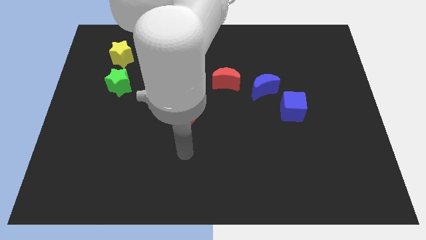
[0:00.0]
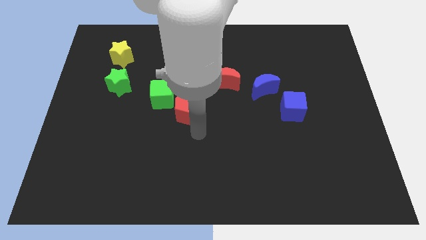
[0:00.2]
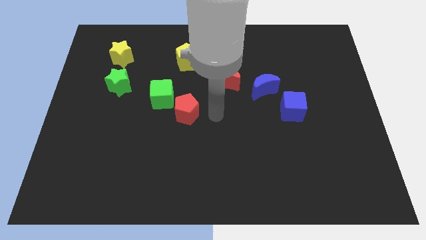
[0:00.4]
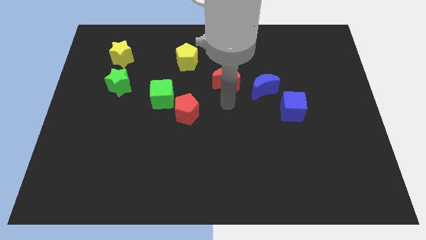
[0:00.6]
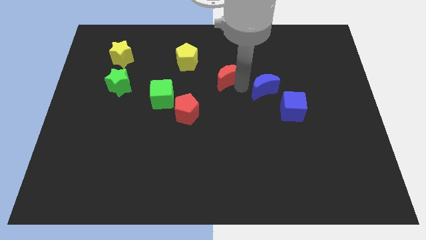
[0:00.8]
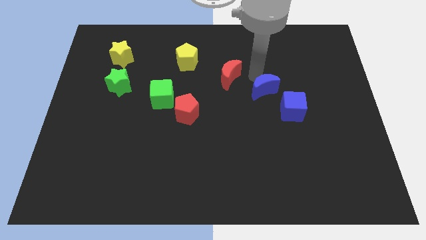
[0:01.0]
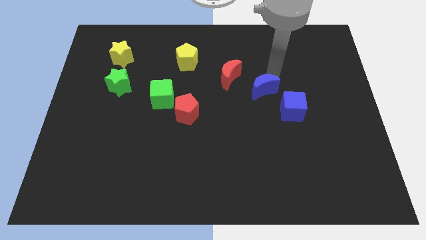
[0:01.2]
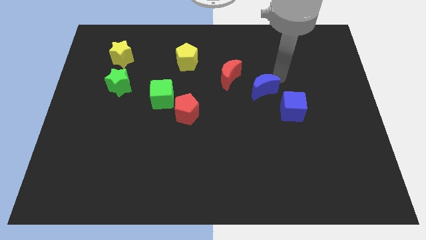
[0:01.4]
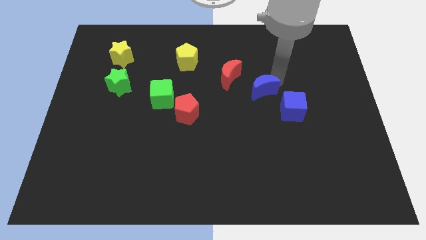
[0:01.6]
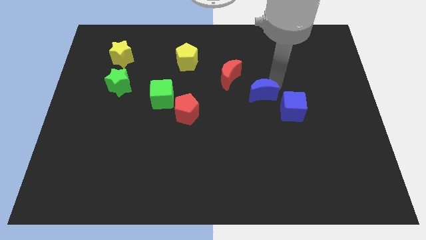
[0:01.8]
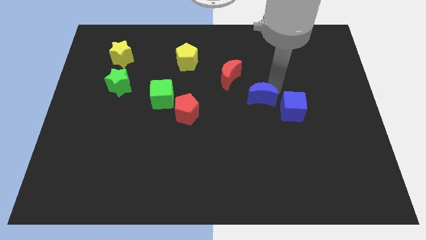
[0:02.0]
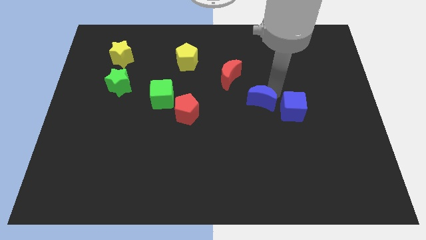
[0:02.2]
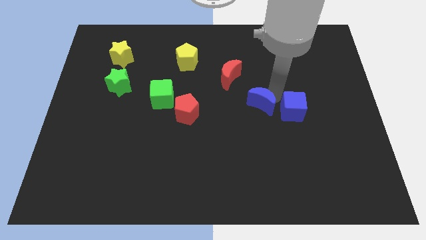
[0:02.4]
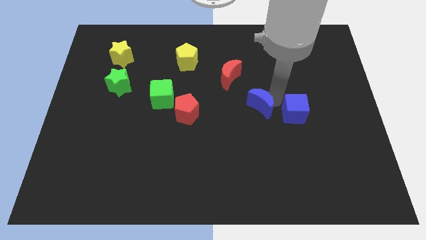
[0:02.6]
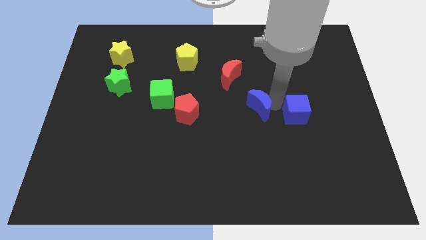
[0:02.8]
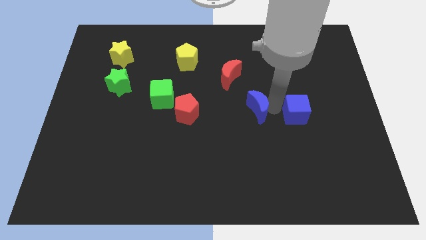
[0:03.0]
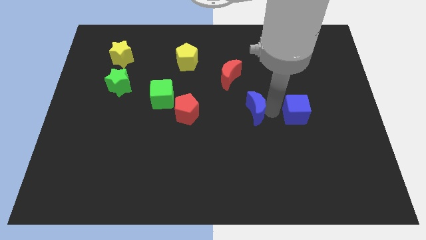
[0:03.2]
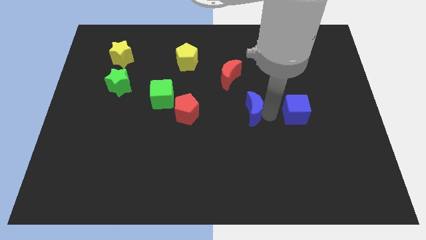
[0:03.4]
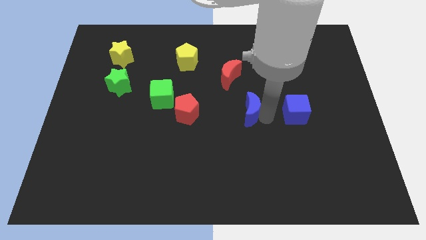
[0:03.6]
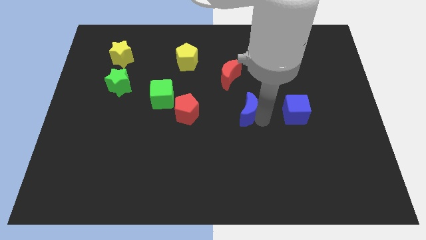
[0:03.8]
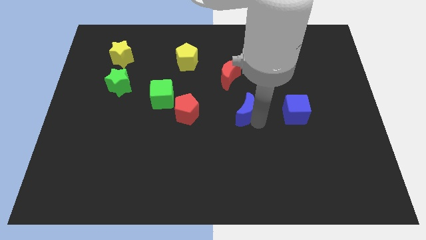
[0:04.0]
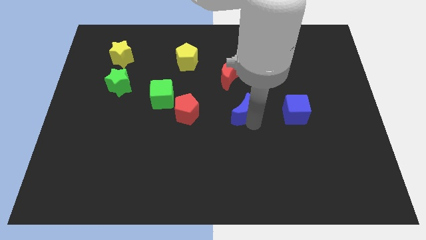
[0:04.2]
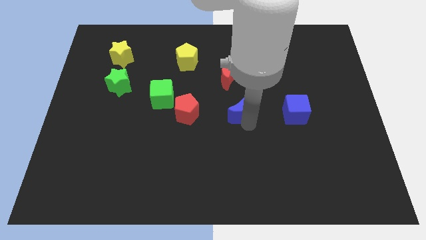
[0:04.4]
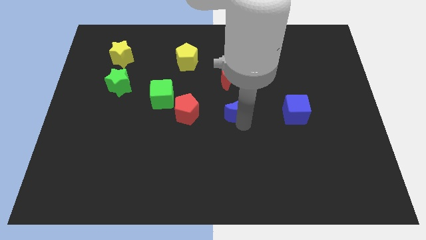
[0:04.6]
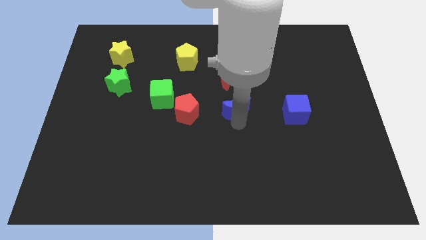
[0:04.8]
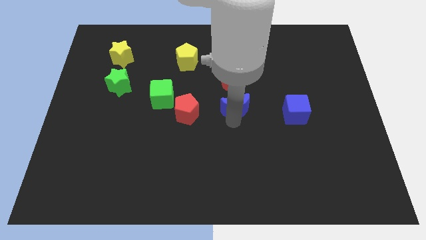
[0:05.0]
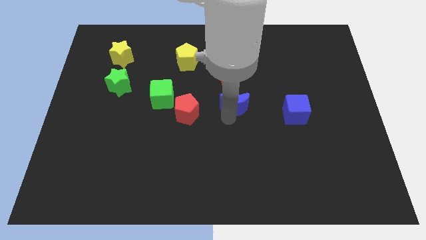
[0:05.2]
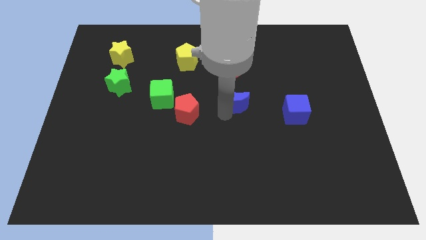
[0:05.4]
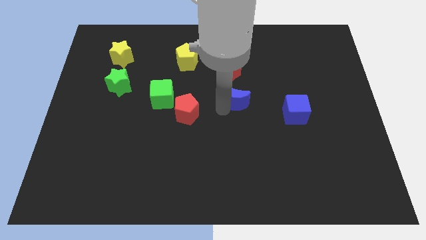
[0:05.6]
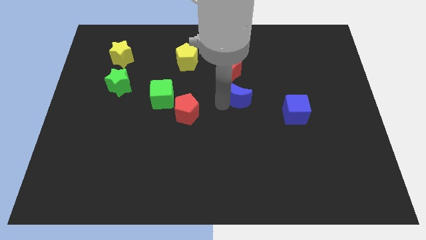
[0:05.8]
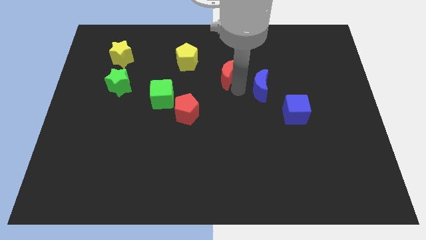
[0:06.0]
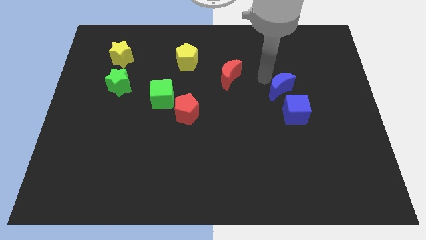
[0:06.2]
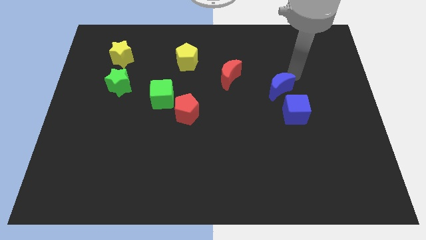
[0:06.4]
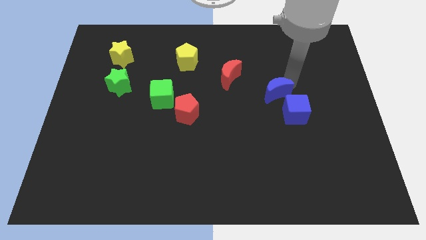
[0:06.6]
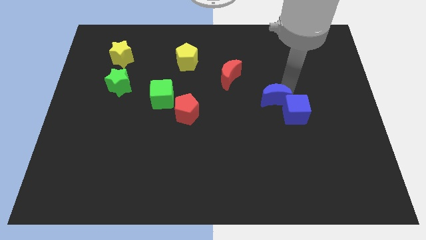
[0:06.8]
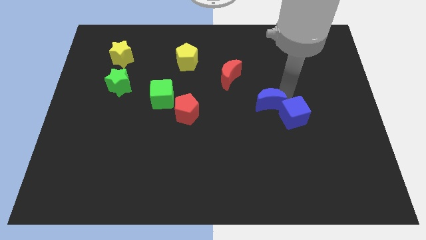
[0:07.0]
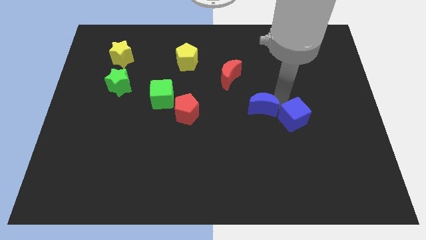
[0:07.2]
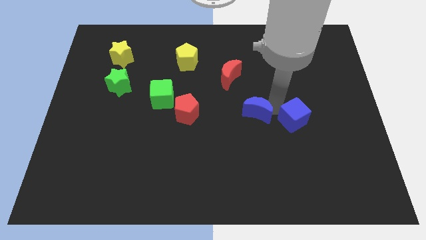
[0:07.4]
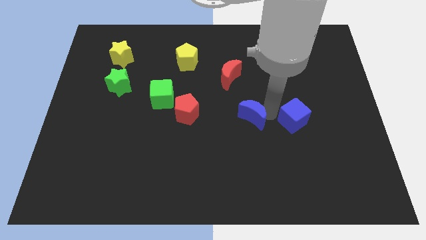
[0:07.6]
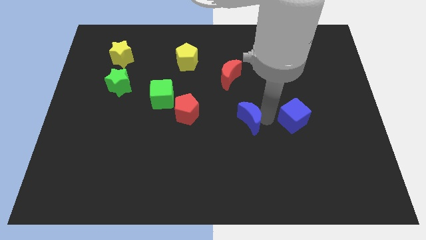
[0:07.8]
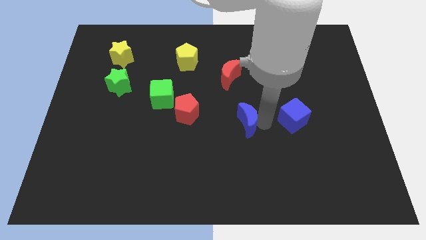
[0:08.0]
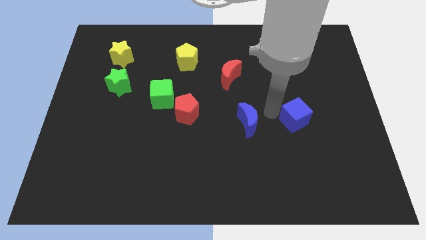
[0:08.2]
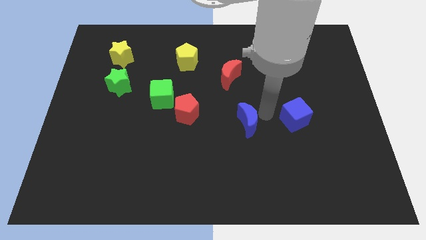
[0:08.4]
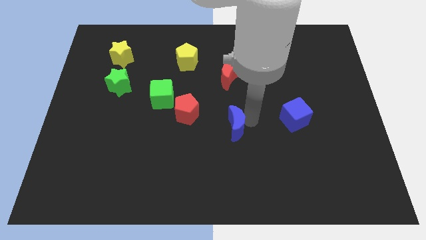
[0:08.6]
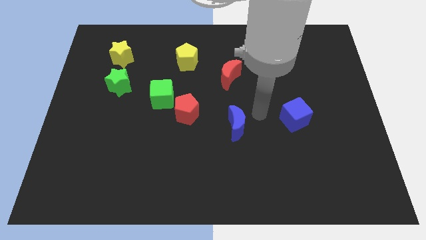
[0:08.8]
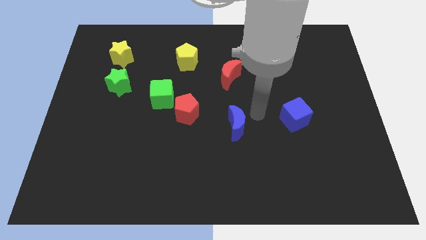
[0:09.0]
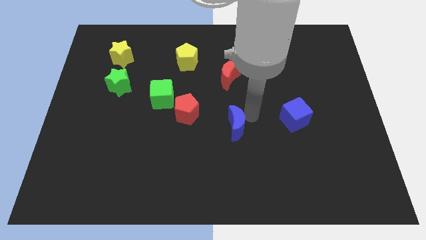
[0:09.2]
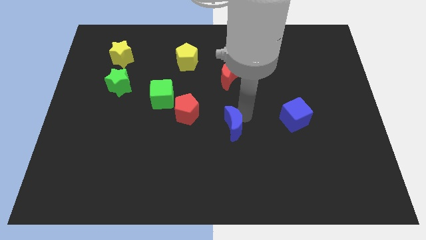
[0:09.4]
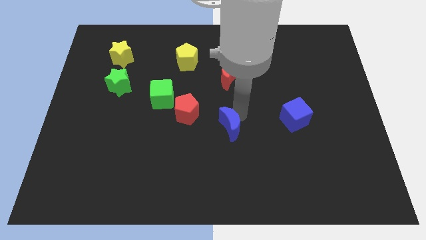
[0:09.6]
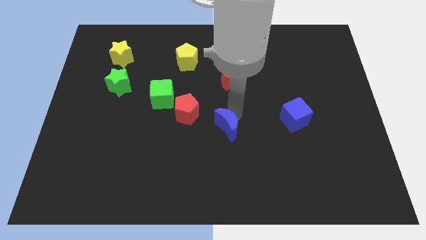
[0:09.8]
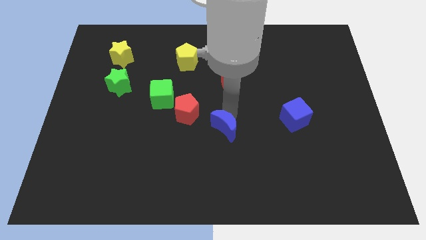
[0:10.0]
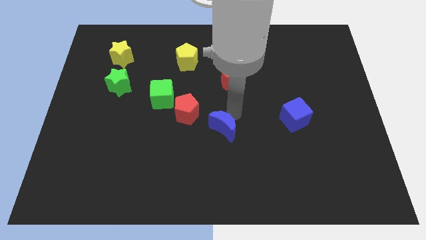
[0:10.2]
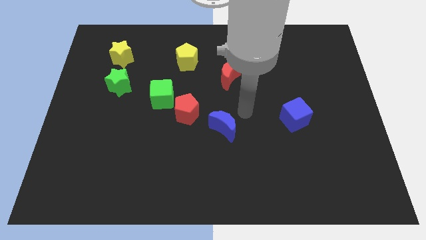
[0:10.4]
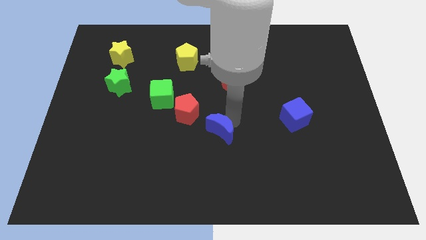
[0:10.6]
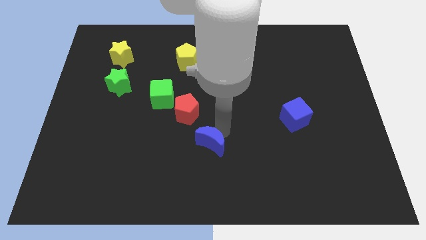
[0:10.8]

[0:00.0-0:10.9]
slide the blue moon downwards and left

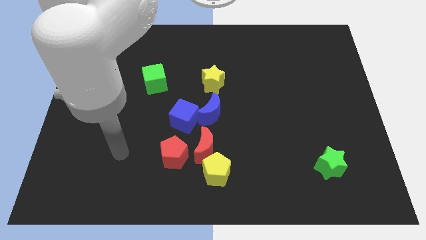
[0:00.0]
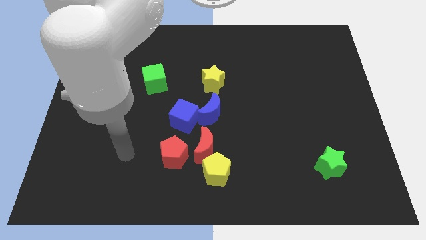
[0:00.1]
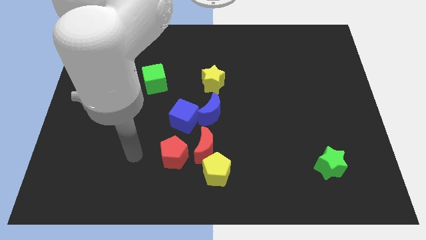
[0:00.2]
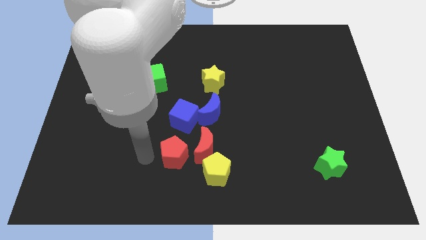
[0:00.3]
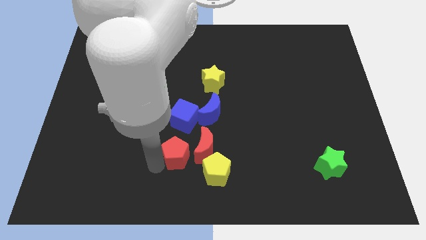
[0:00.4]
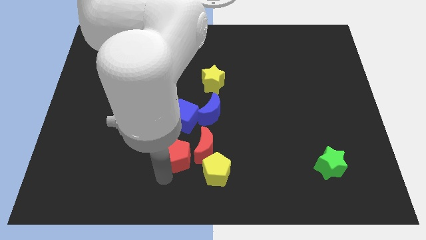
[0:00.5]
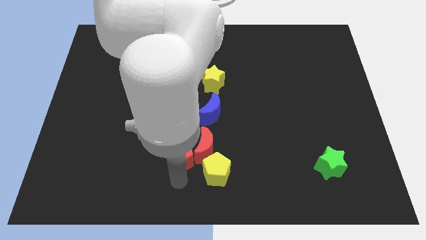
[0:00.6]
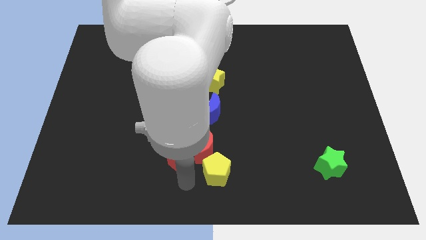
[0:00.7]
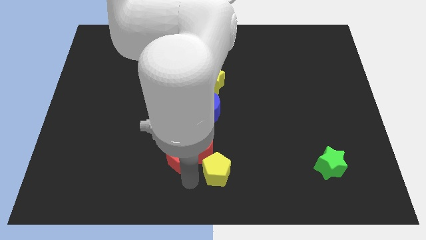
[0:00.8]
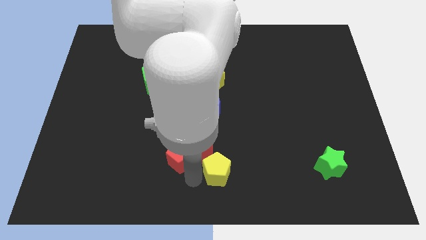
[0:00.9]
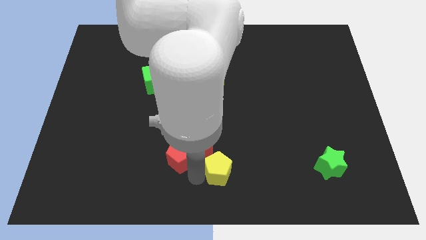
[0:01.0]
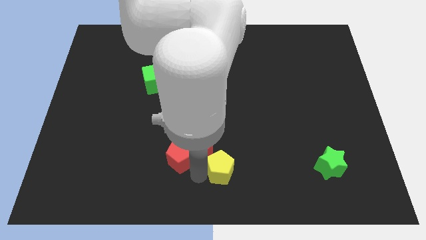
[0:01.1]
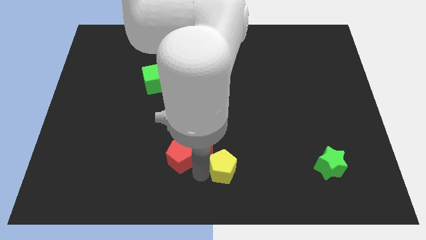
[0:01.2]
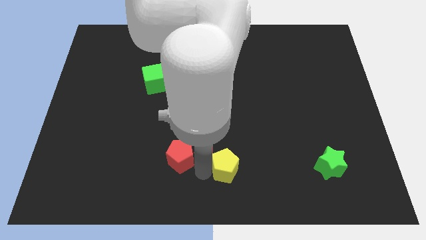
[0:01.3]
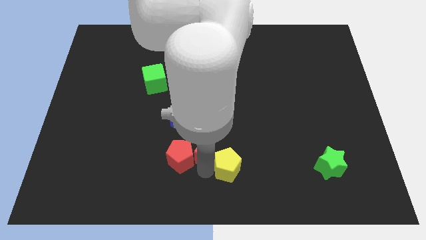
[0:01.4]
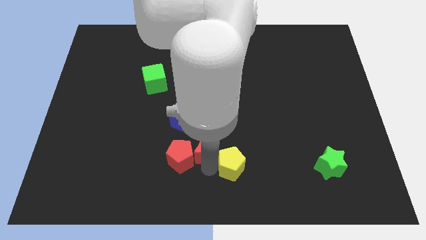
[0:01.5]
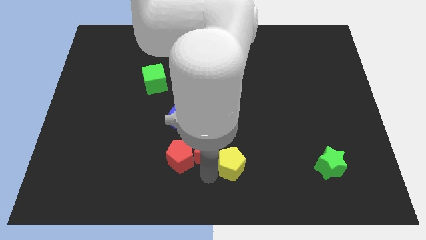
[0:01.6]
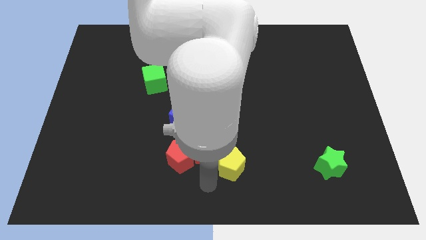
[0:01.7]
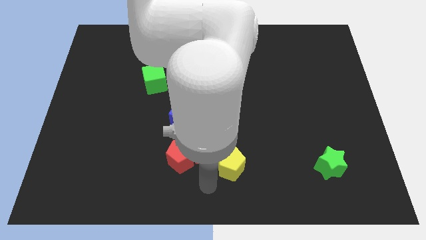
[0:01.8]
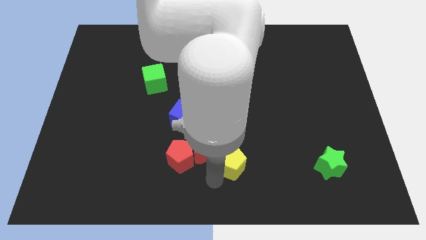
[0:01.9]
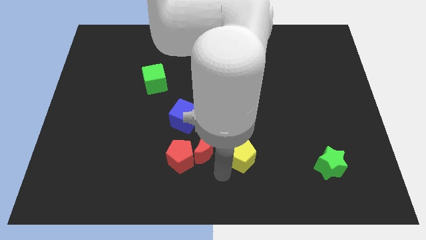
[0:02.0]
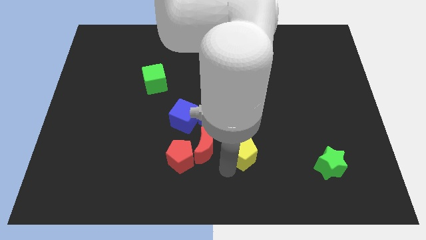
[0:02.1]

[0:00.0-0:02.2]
push the yellow pentagon upwards and then right somewhat

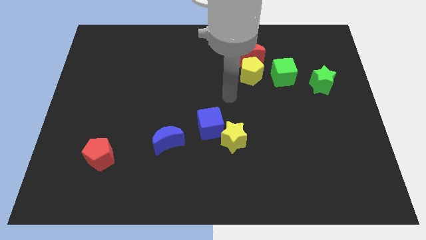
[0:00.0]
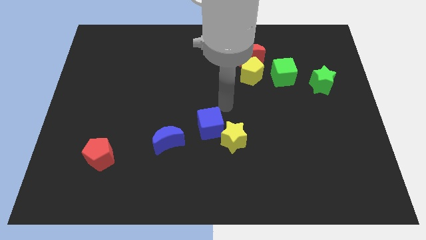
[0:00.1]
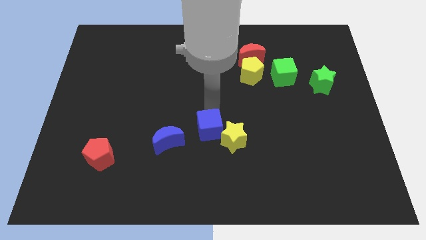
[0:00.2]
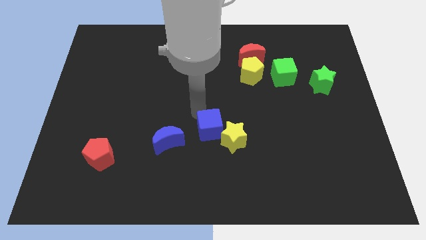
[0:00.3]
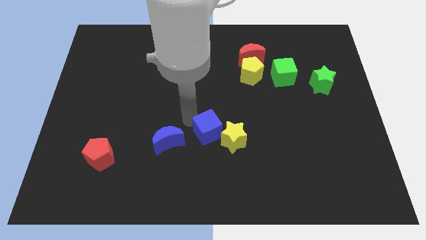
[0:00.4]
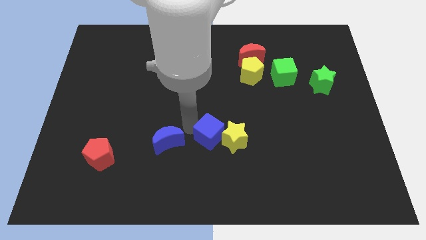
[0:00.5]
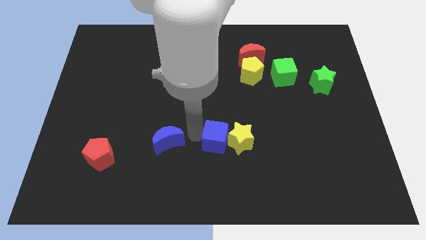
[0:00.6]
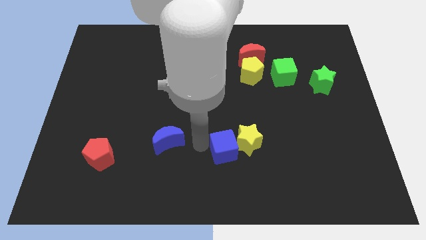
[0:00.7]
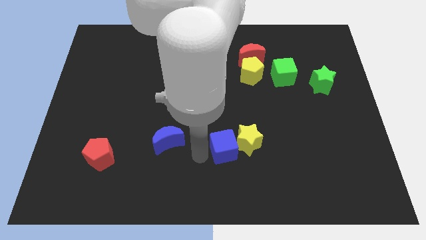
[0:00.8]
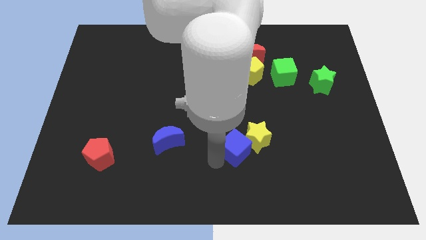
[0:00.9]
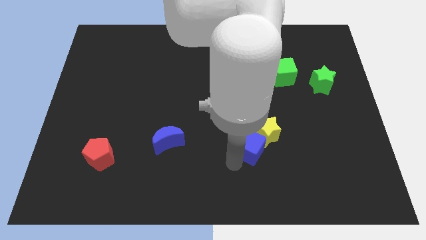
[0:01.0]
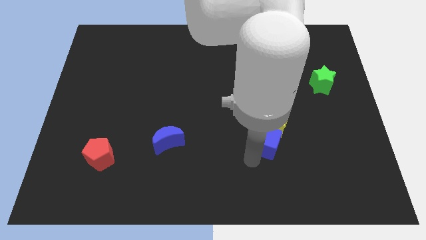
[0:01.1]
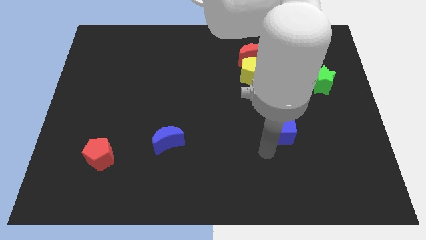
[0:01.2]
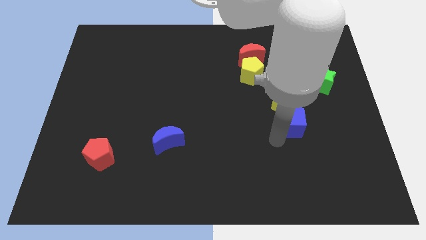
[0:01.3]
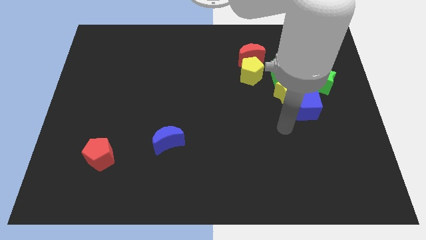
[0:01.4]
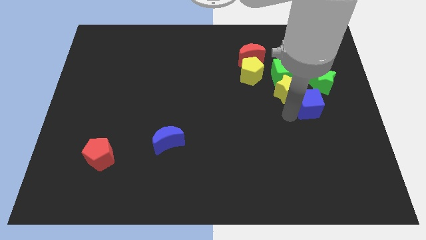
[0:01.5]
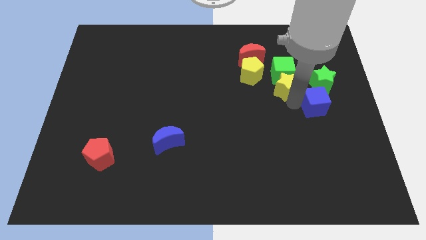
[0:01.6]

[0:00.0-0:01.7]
slide the yellow star up and to the right
